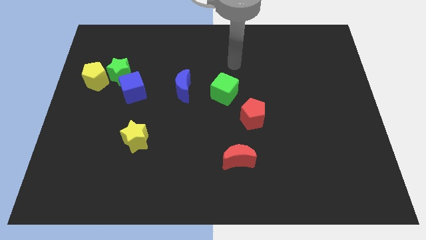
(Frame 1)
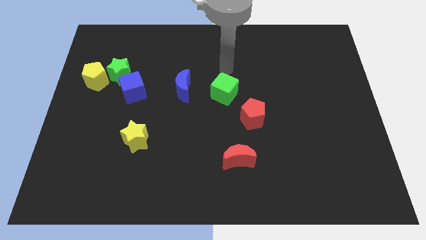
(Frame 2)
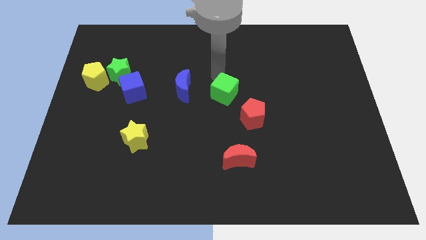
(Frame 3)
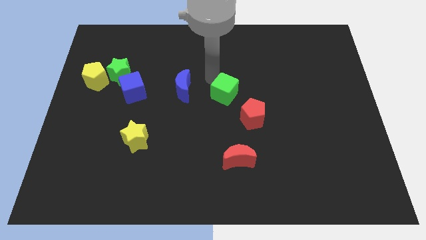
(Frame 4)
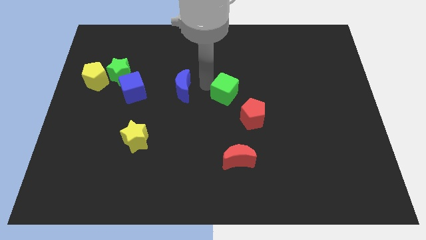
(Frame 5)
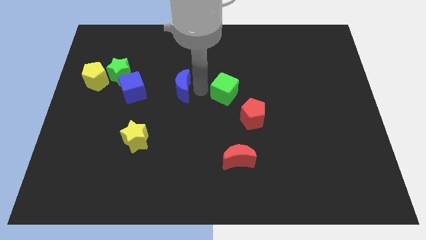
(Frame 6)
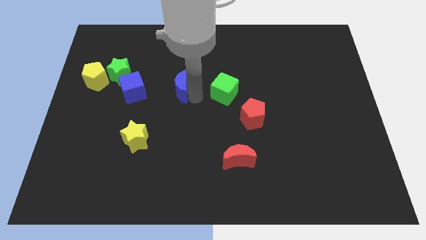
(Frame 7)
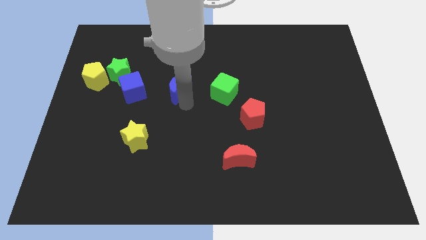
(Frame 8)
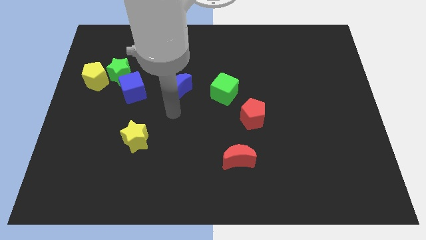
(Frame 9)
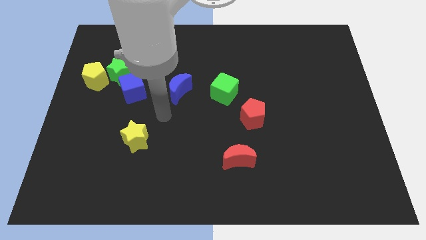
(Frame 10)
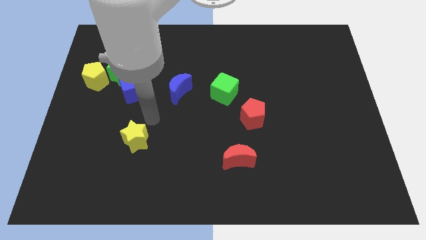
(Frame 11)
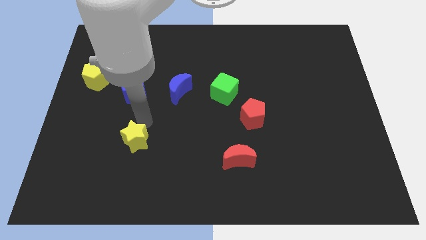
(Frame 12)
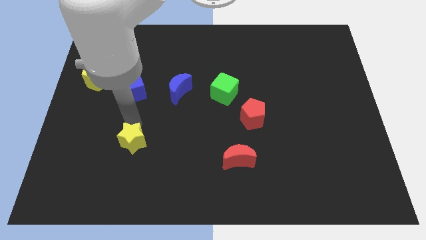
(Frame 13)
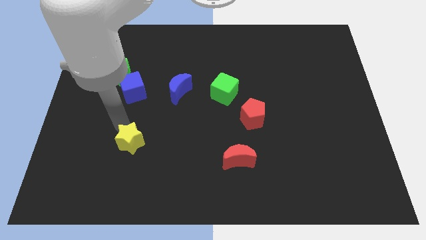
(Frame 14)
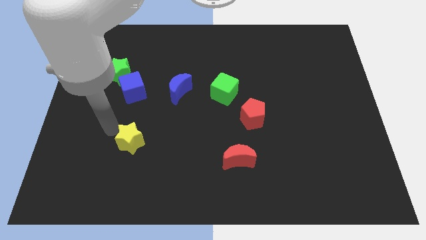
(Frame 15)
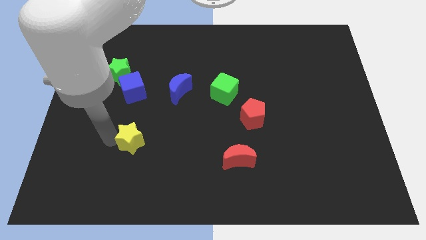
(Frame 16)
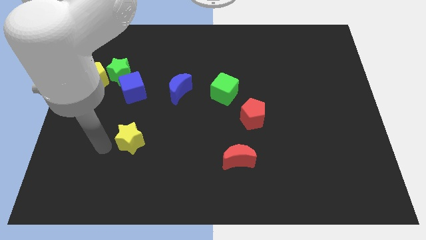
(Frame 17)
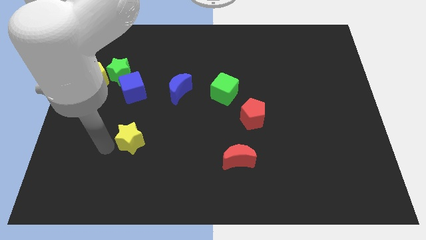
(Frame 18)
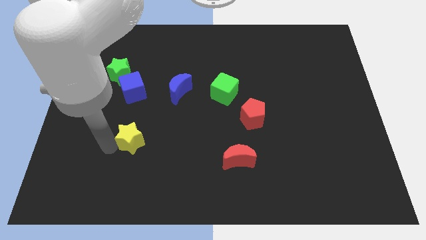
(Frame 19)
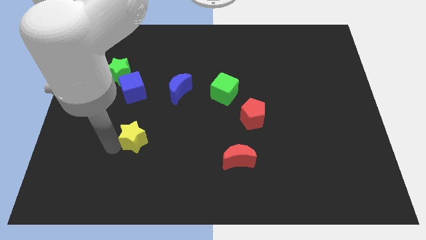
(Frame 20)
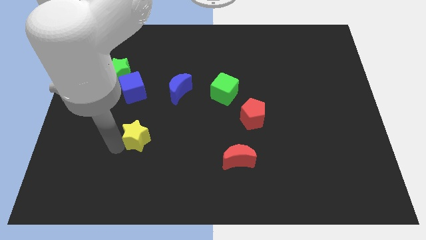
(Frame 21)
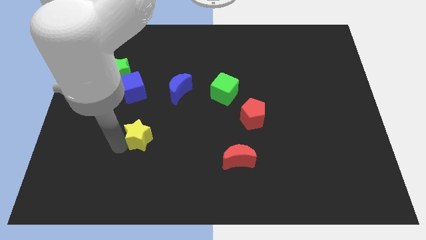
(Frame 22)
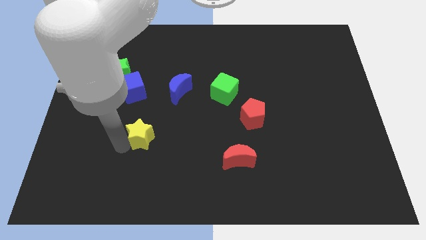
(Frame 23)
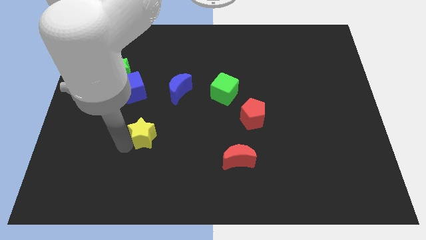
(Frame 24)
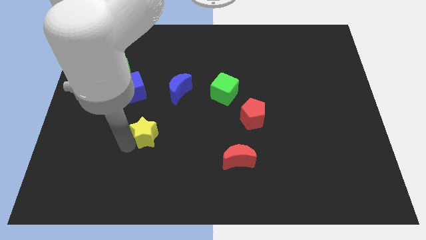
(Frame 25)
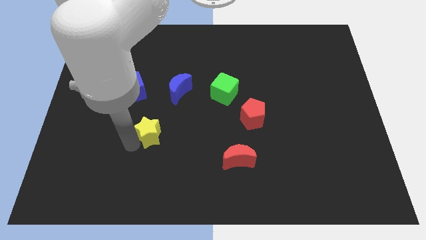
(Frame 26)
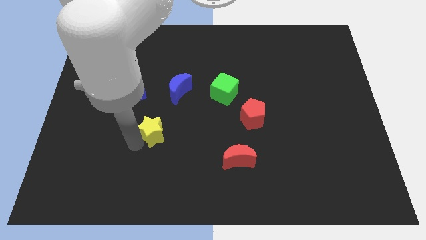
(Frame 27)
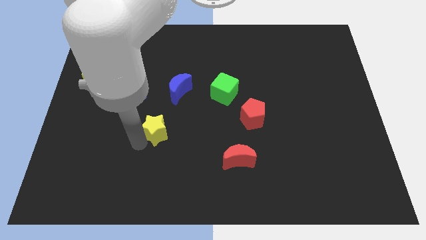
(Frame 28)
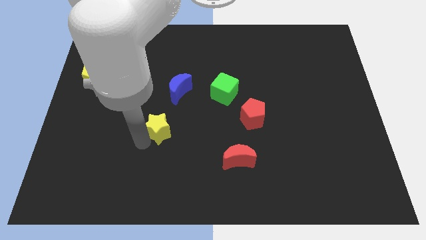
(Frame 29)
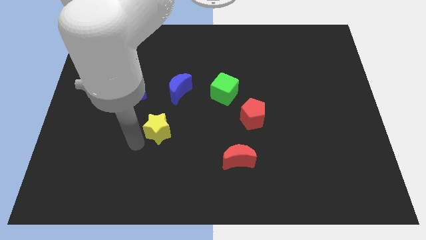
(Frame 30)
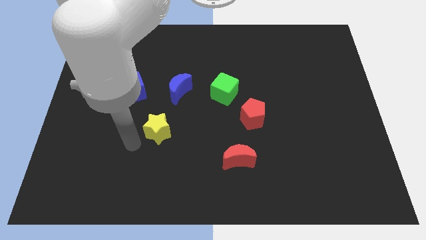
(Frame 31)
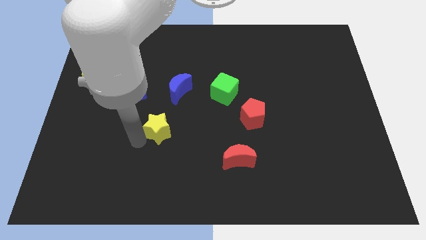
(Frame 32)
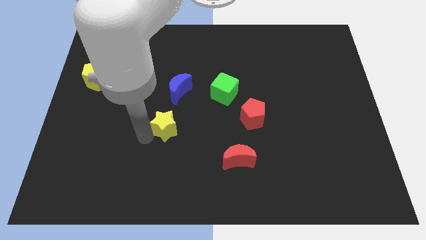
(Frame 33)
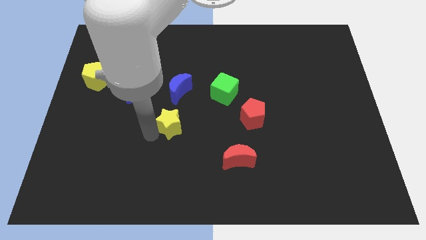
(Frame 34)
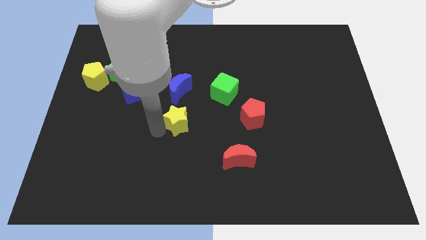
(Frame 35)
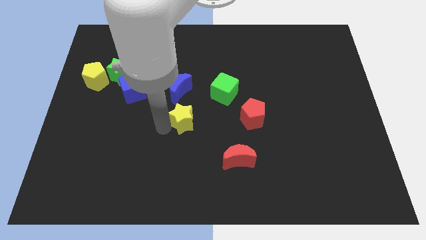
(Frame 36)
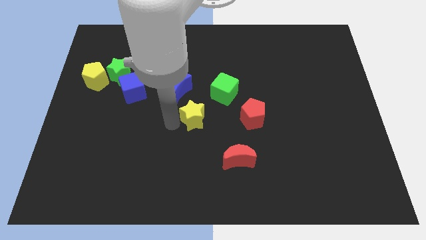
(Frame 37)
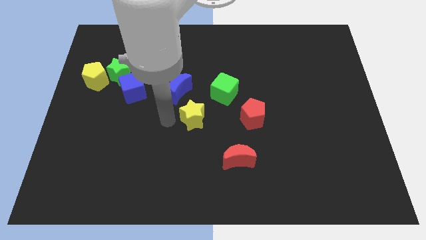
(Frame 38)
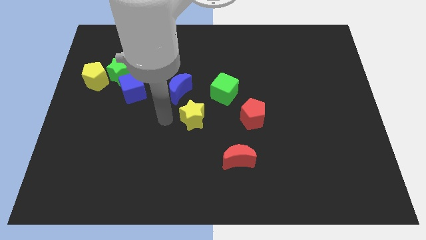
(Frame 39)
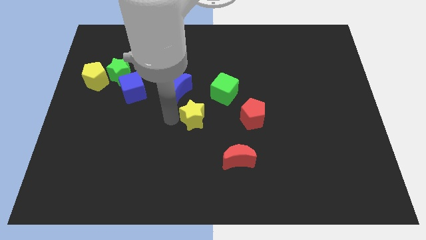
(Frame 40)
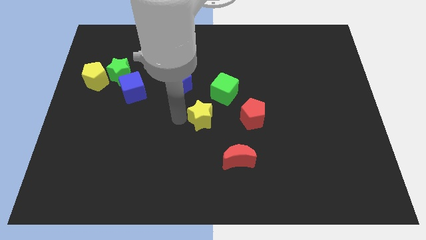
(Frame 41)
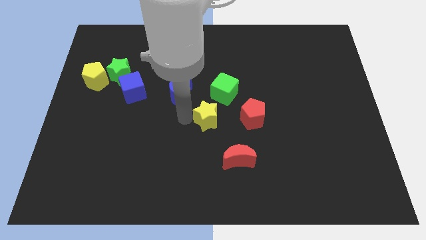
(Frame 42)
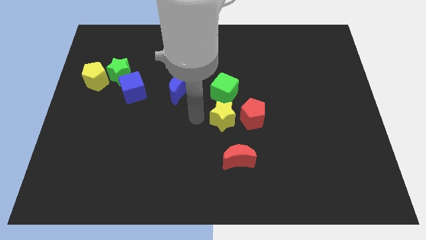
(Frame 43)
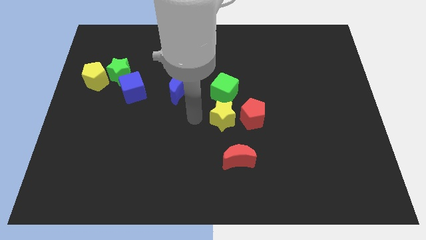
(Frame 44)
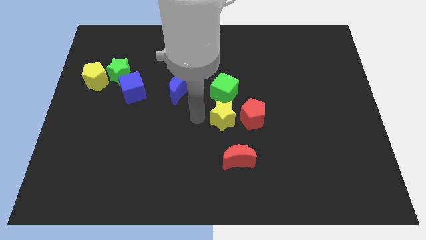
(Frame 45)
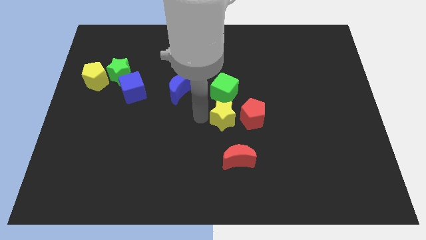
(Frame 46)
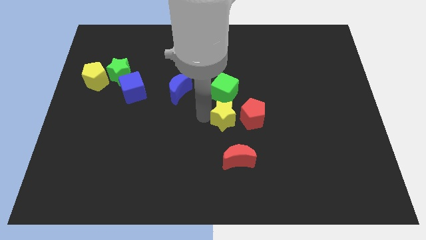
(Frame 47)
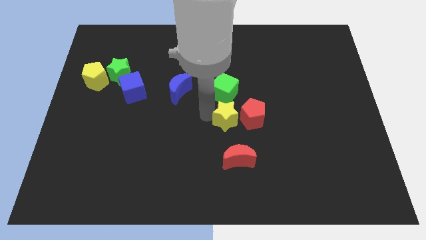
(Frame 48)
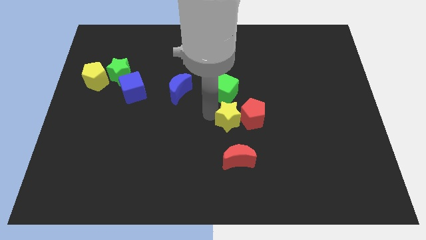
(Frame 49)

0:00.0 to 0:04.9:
push the yellow star towards the red pentagon
